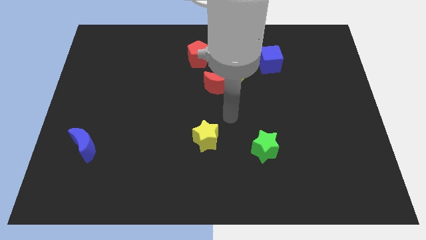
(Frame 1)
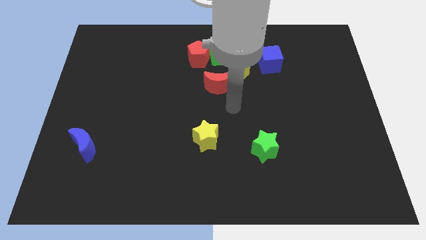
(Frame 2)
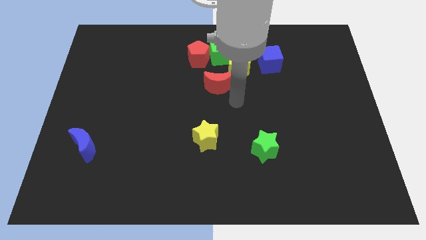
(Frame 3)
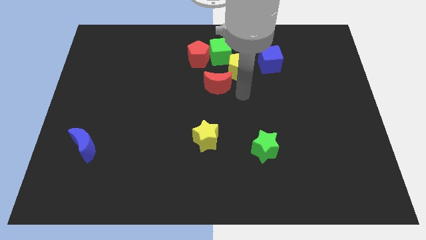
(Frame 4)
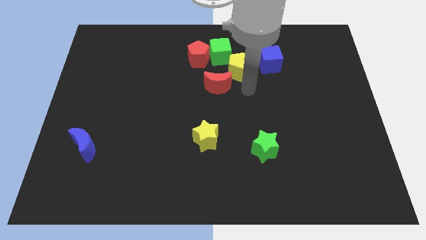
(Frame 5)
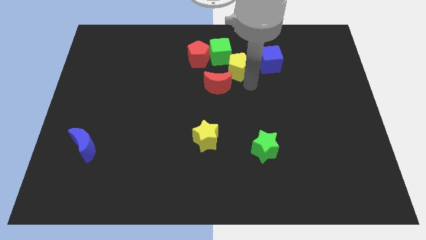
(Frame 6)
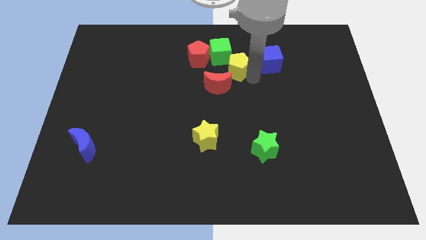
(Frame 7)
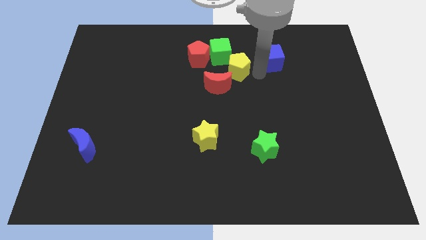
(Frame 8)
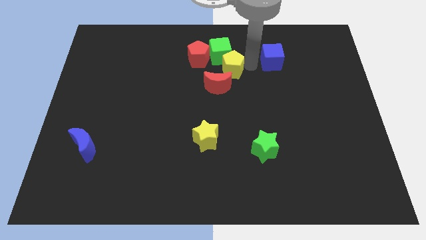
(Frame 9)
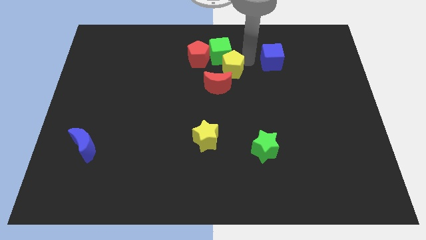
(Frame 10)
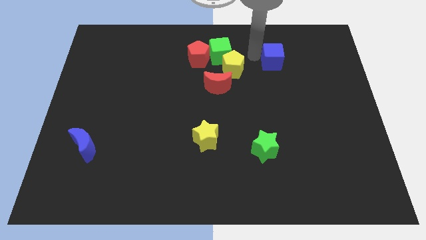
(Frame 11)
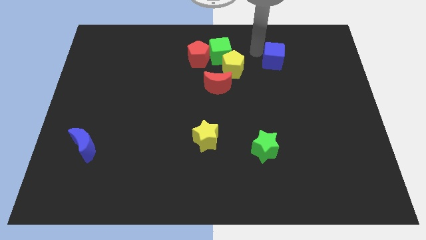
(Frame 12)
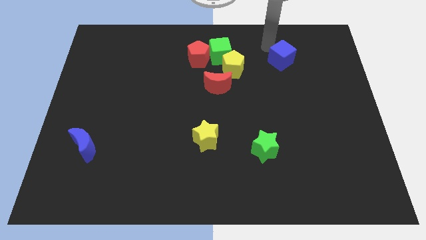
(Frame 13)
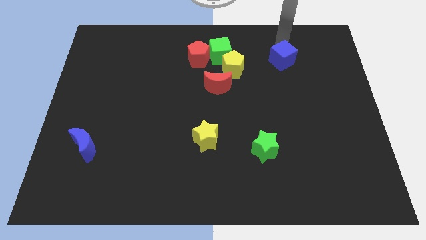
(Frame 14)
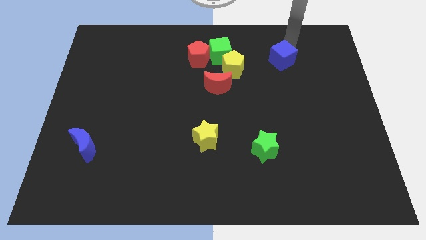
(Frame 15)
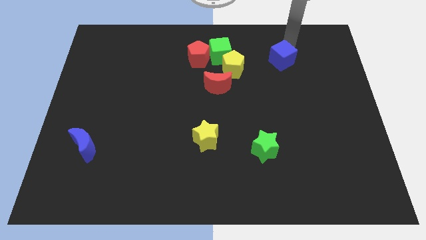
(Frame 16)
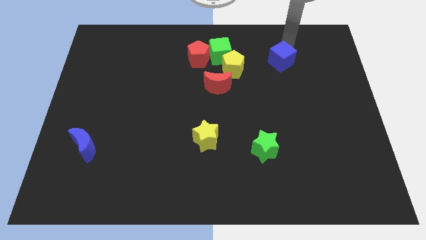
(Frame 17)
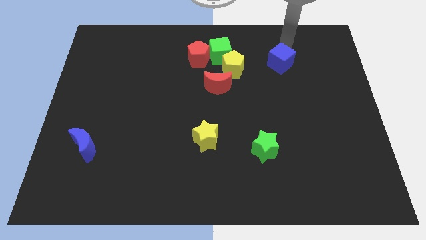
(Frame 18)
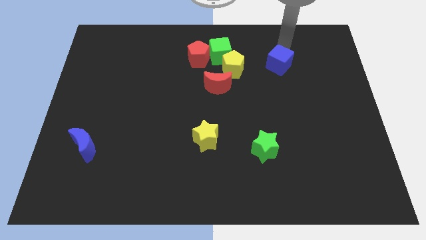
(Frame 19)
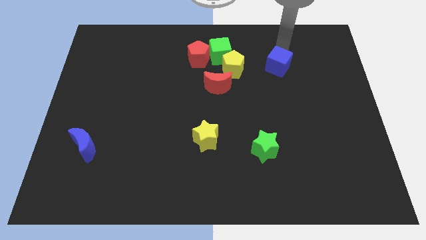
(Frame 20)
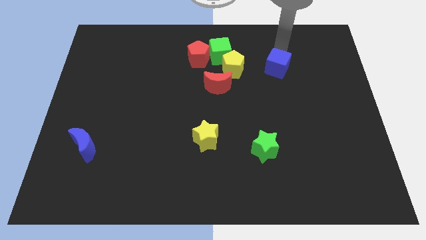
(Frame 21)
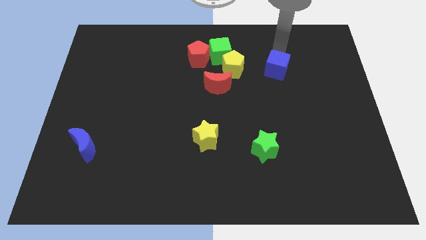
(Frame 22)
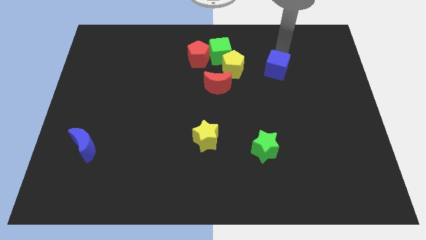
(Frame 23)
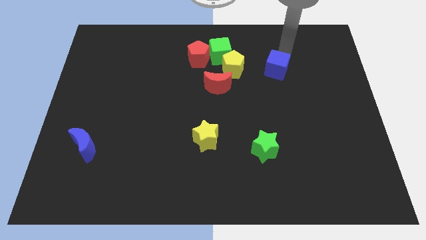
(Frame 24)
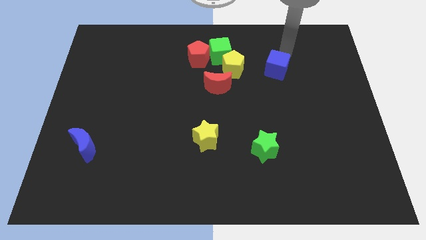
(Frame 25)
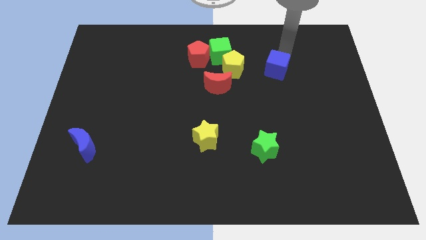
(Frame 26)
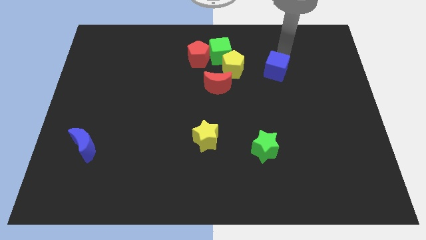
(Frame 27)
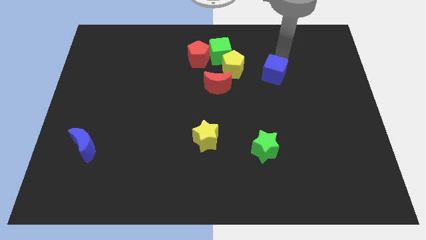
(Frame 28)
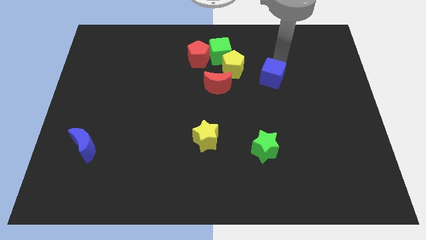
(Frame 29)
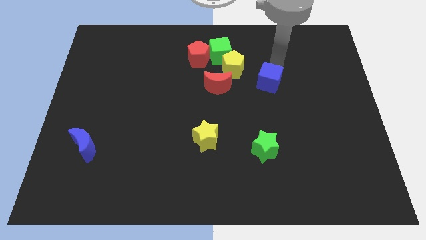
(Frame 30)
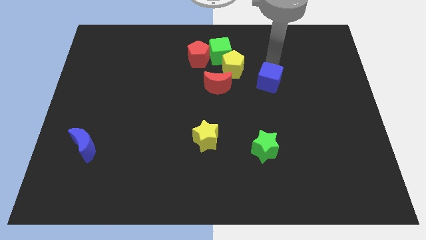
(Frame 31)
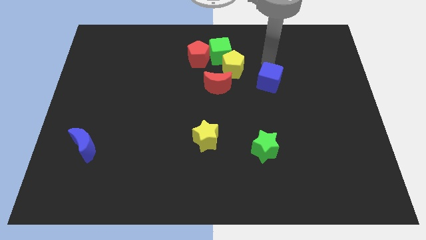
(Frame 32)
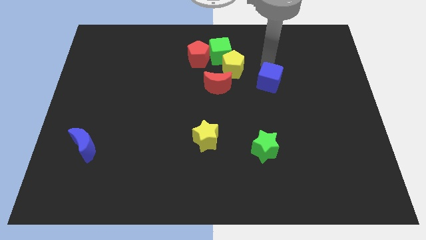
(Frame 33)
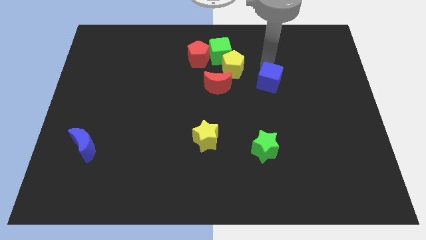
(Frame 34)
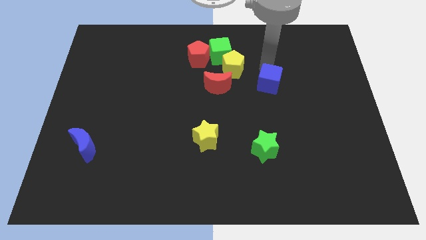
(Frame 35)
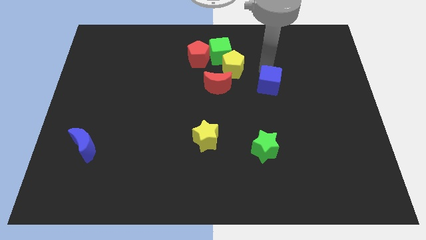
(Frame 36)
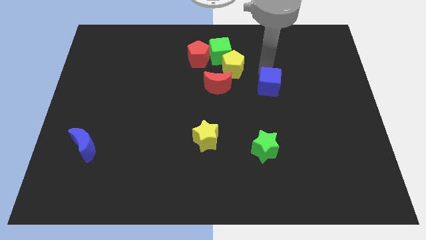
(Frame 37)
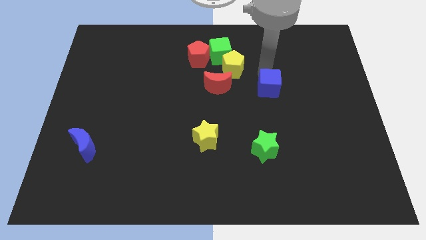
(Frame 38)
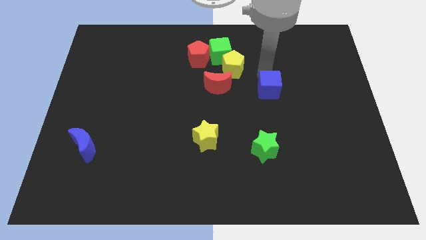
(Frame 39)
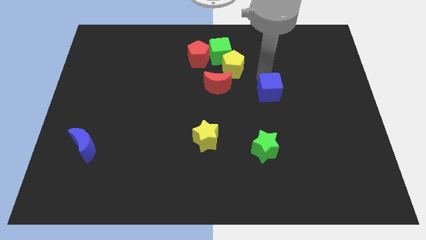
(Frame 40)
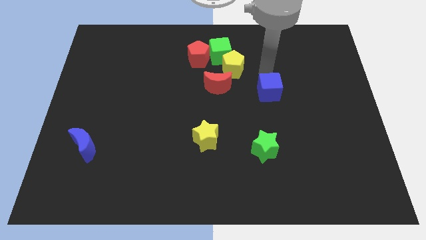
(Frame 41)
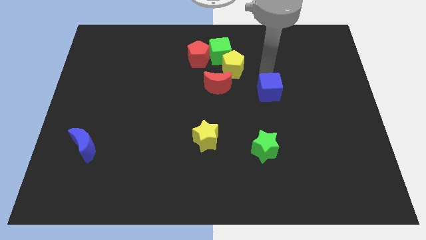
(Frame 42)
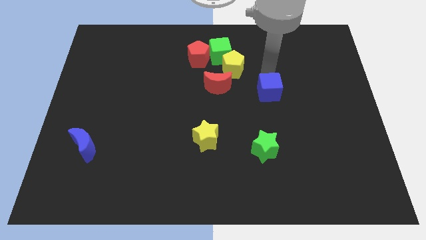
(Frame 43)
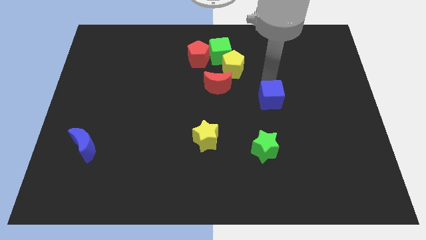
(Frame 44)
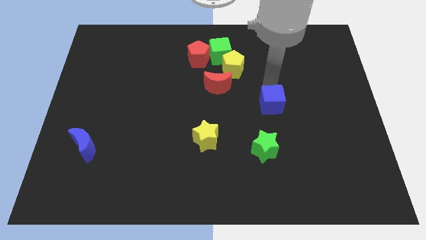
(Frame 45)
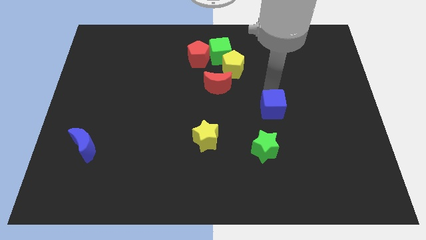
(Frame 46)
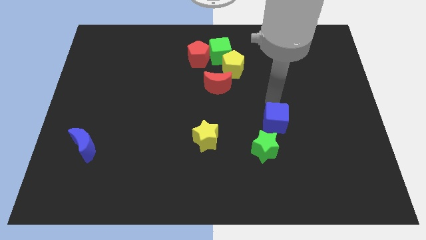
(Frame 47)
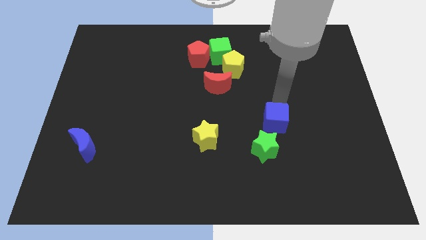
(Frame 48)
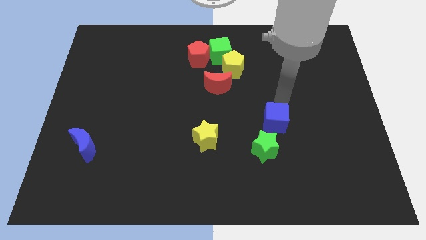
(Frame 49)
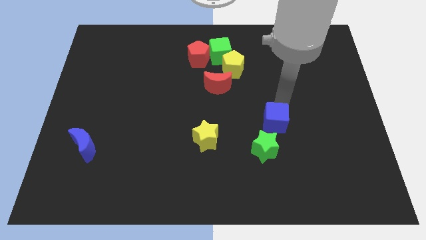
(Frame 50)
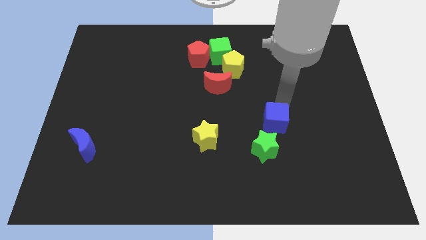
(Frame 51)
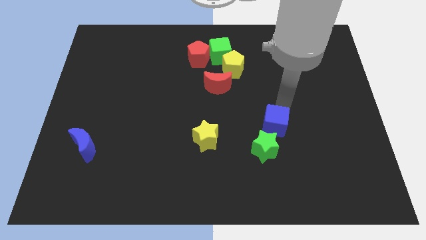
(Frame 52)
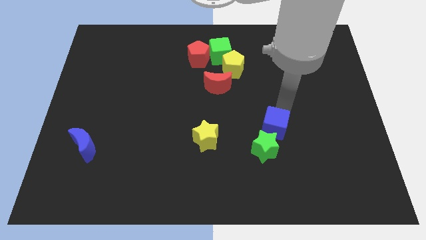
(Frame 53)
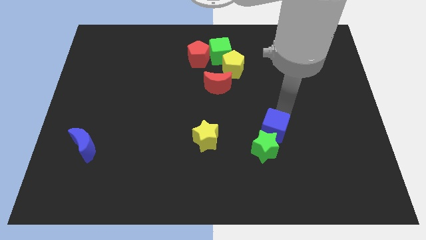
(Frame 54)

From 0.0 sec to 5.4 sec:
move the blue cube close to the green star

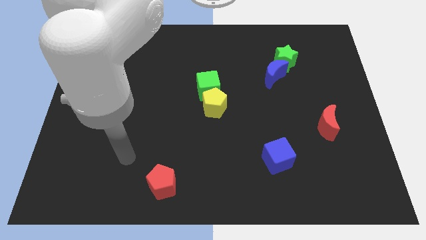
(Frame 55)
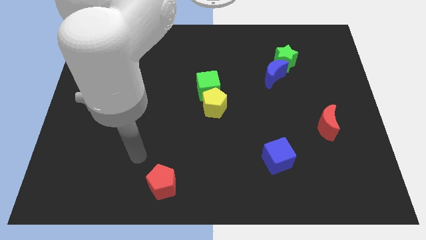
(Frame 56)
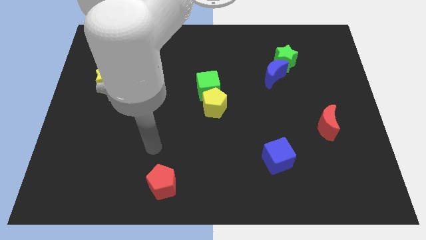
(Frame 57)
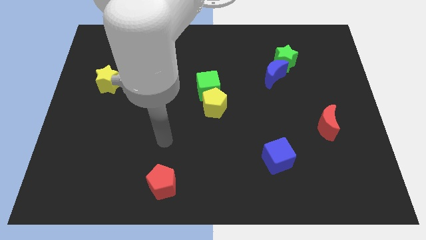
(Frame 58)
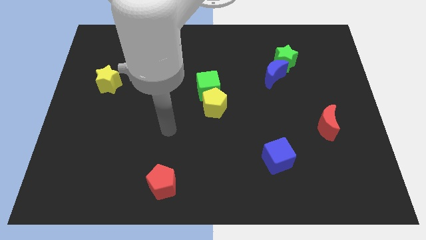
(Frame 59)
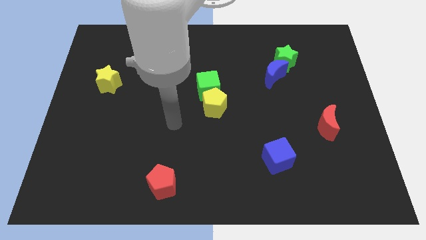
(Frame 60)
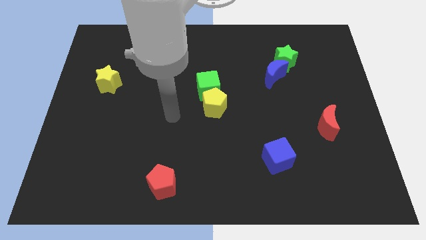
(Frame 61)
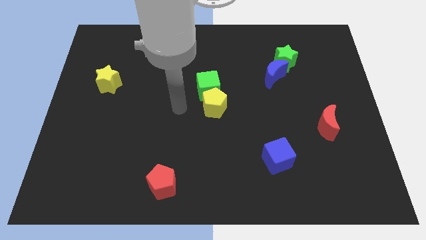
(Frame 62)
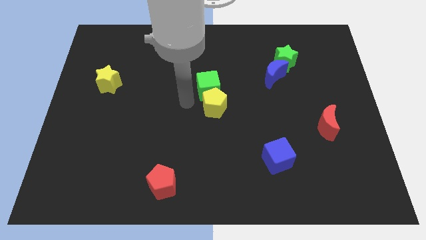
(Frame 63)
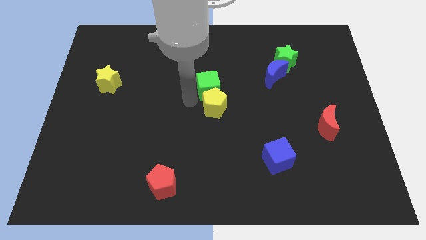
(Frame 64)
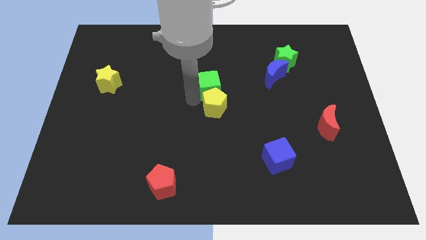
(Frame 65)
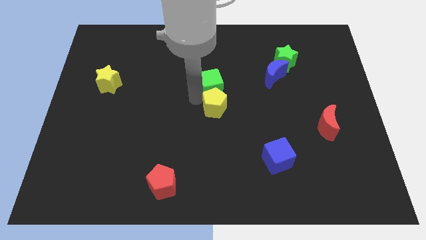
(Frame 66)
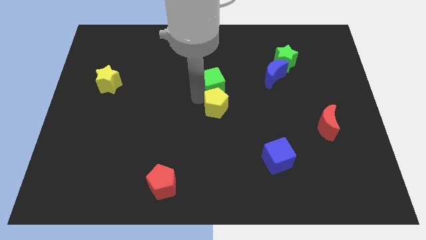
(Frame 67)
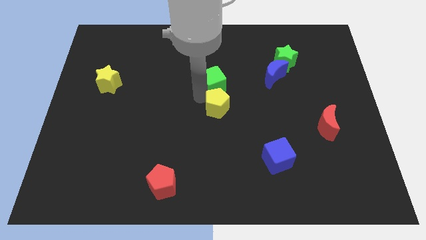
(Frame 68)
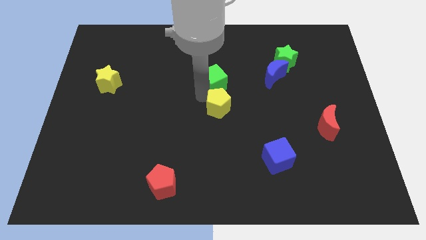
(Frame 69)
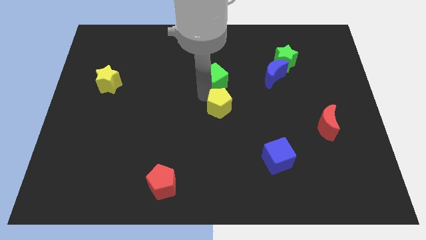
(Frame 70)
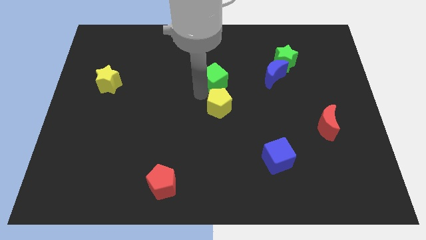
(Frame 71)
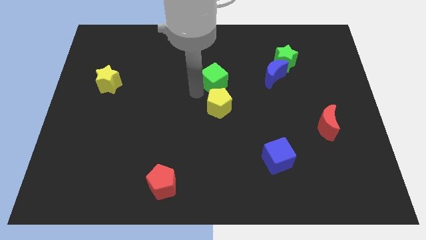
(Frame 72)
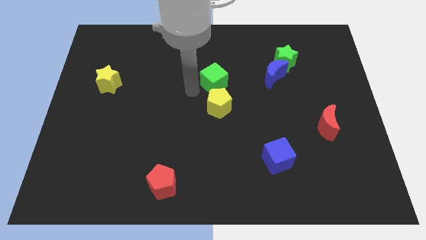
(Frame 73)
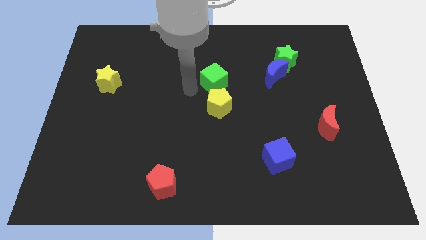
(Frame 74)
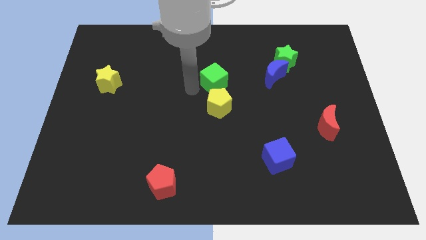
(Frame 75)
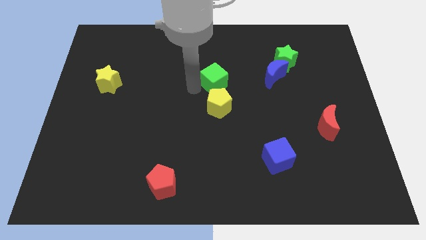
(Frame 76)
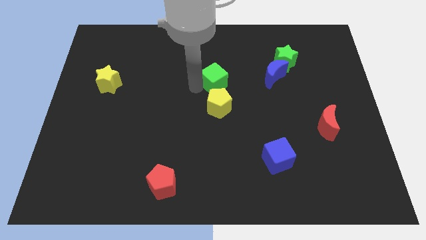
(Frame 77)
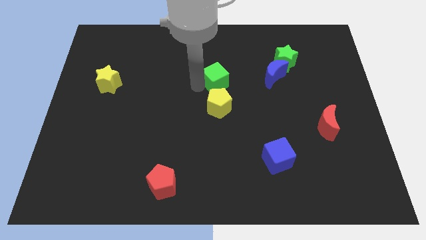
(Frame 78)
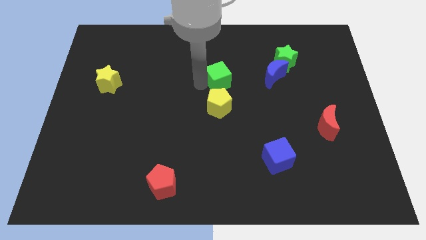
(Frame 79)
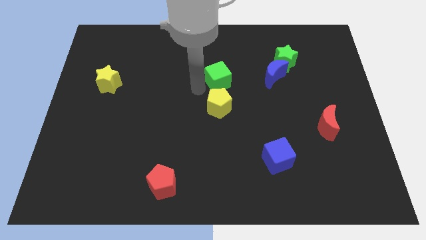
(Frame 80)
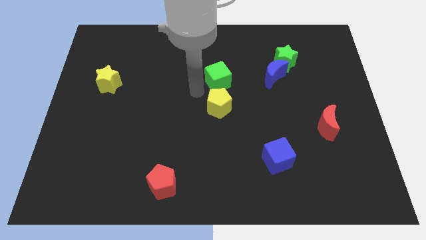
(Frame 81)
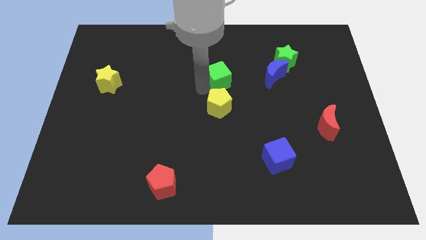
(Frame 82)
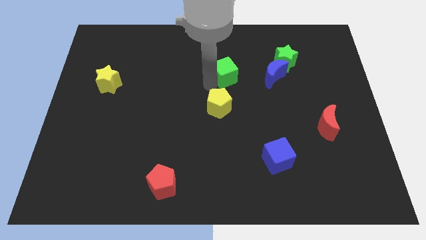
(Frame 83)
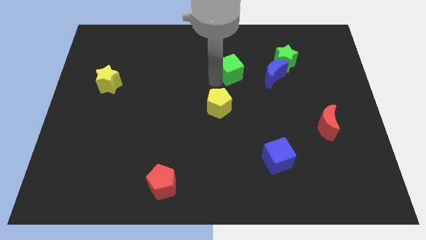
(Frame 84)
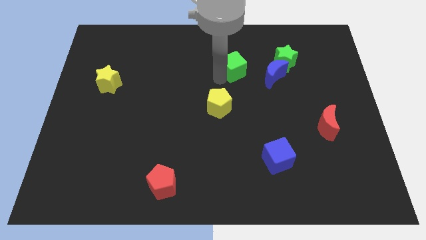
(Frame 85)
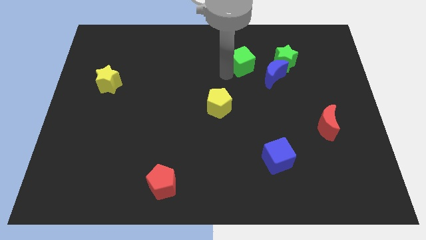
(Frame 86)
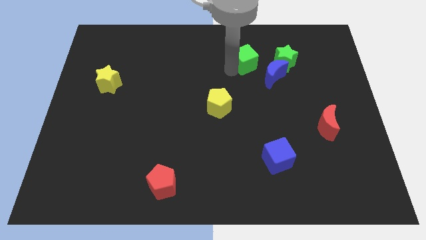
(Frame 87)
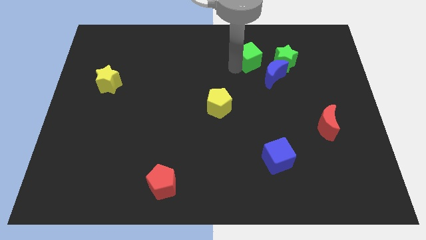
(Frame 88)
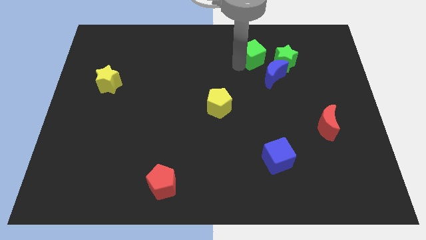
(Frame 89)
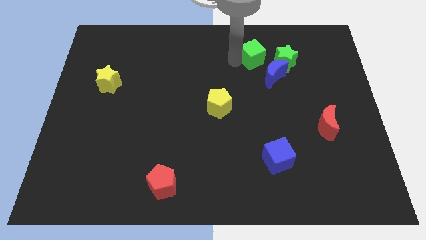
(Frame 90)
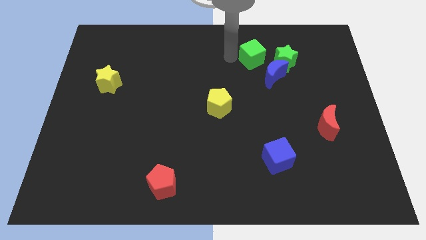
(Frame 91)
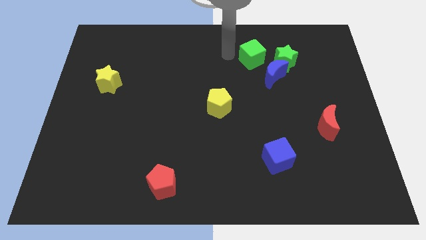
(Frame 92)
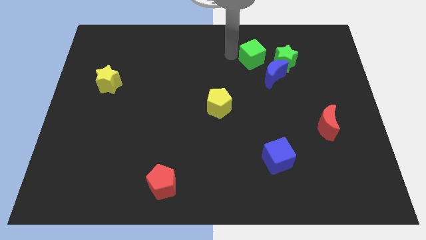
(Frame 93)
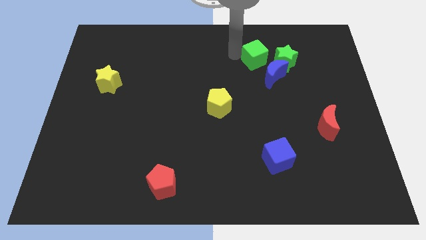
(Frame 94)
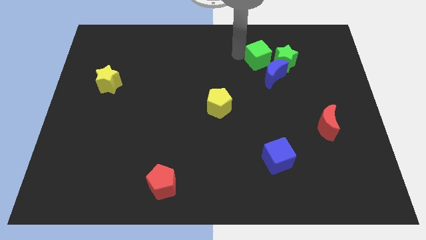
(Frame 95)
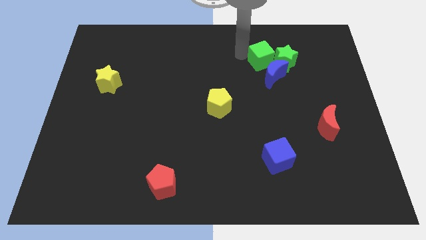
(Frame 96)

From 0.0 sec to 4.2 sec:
move the green cube close to the green star
